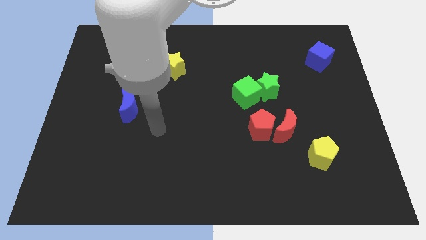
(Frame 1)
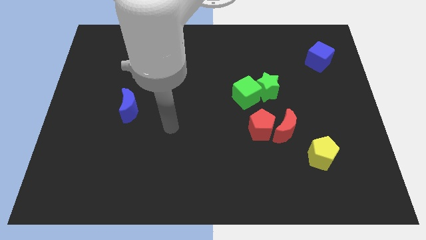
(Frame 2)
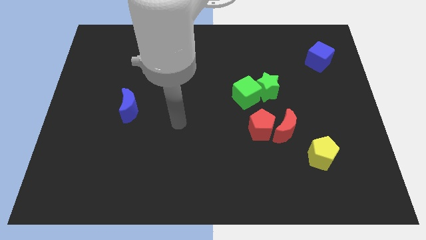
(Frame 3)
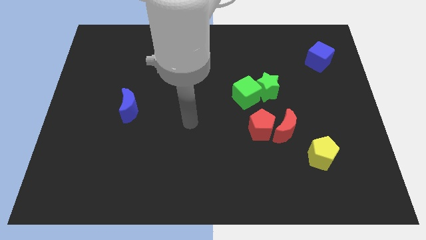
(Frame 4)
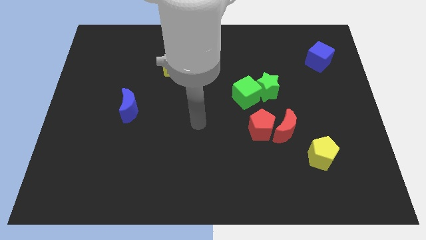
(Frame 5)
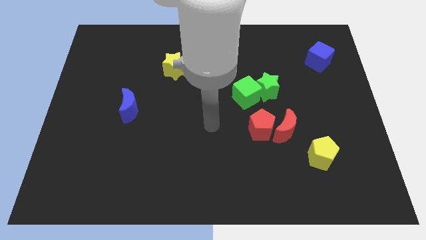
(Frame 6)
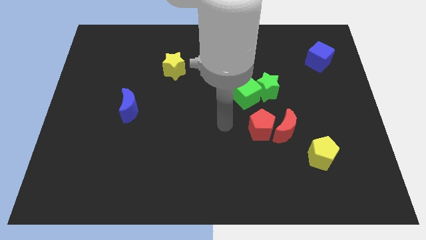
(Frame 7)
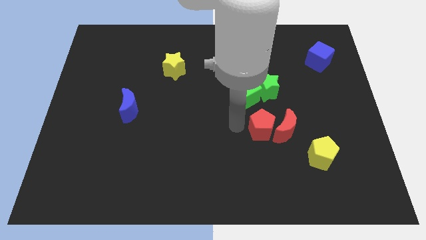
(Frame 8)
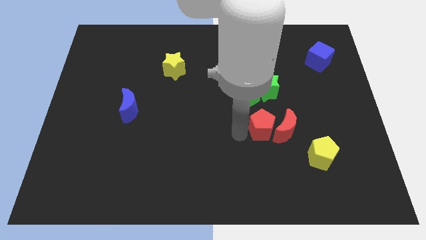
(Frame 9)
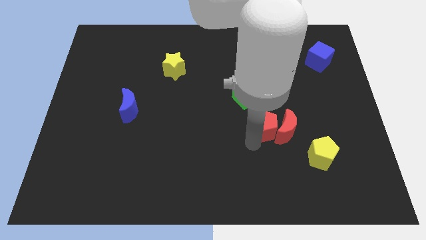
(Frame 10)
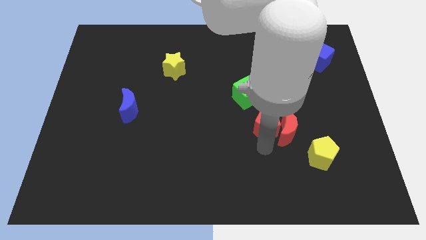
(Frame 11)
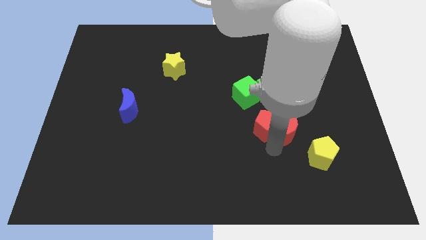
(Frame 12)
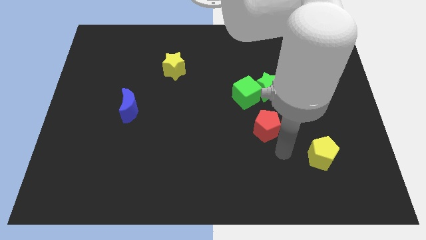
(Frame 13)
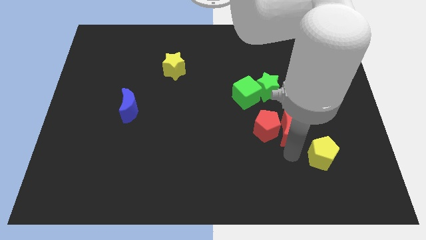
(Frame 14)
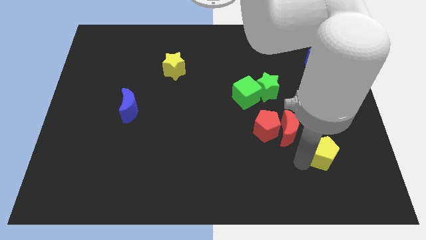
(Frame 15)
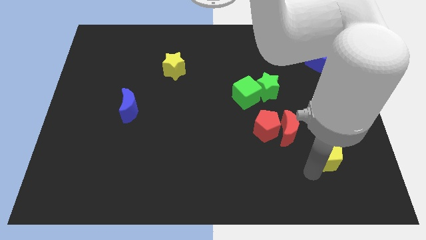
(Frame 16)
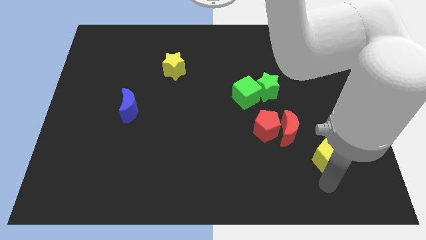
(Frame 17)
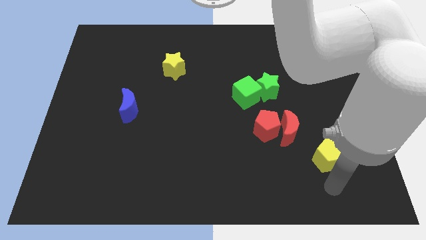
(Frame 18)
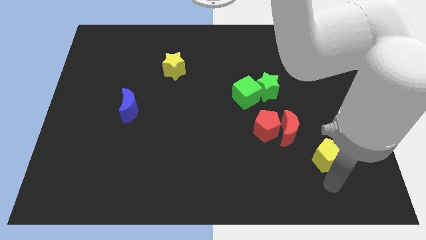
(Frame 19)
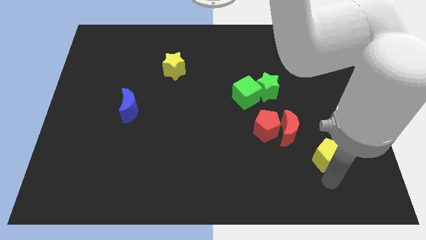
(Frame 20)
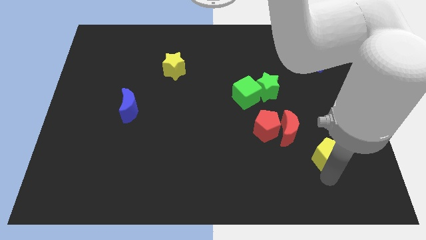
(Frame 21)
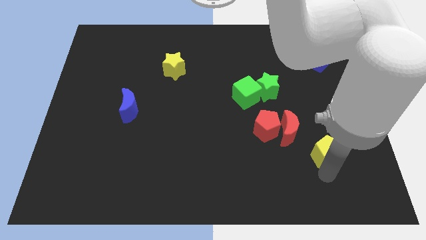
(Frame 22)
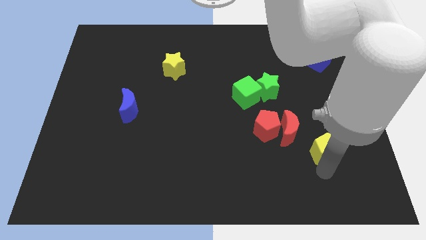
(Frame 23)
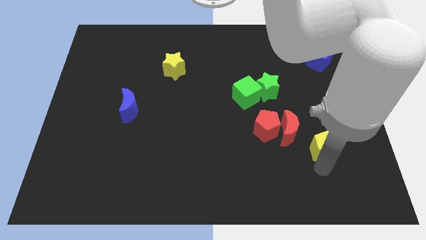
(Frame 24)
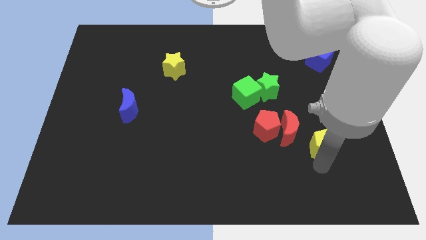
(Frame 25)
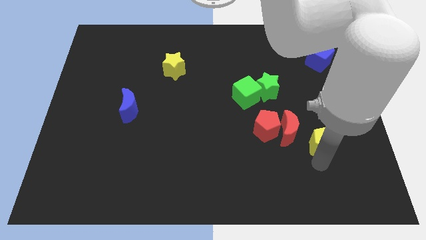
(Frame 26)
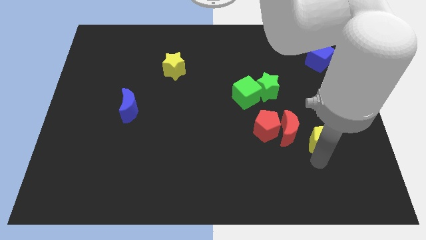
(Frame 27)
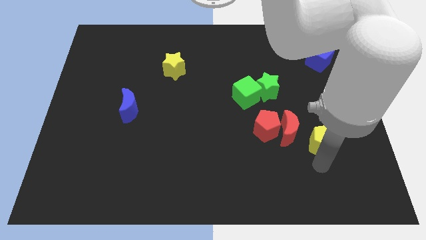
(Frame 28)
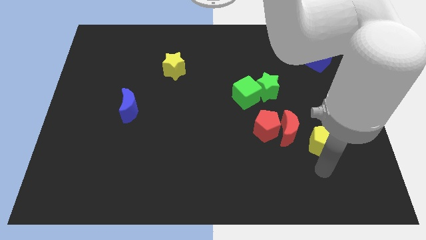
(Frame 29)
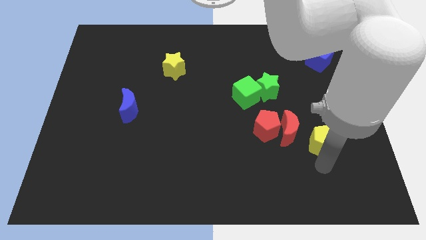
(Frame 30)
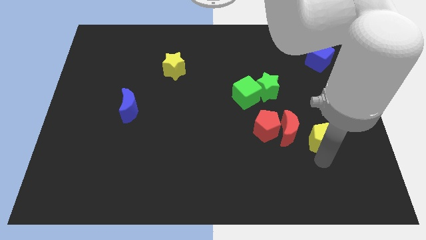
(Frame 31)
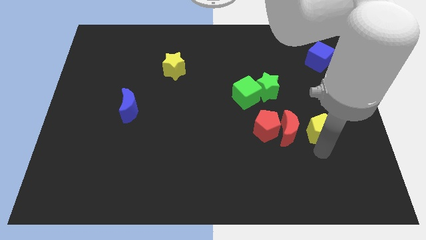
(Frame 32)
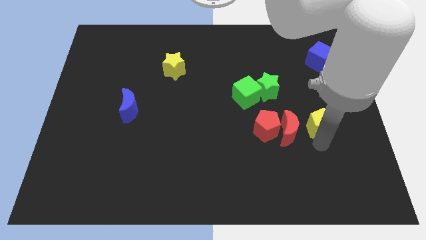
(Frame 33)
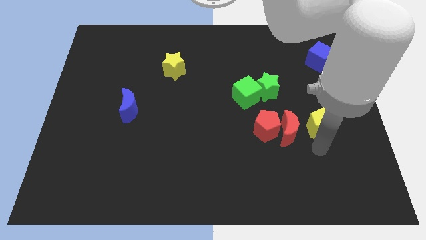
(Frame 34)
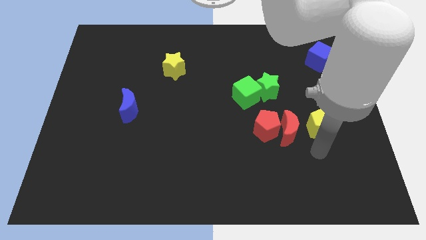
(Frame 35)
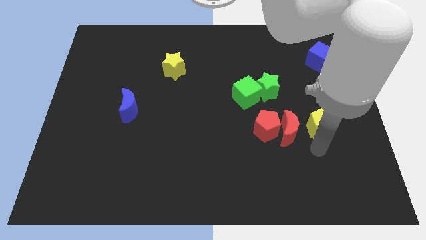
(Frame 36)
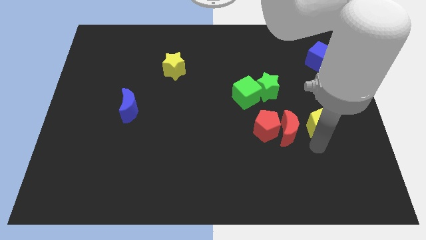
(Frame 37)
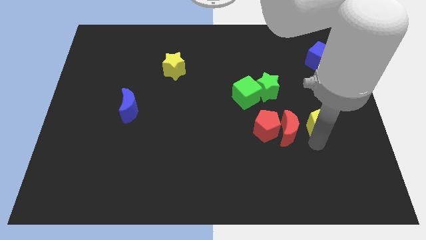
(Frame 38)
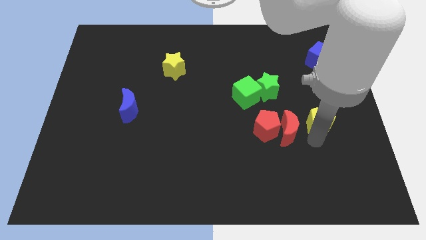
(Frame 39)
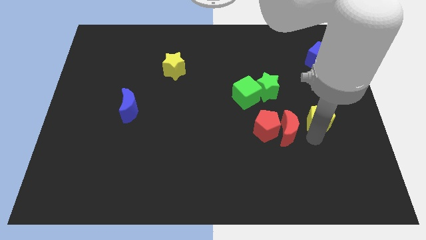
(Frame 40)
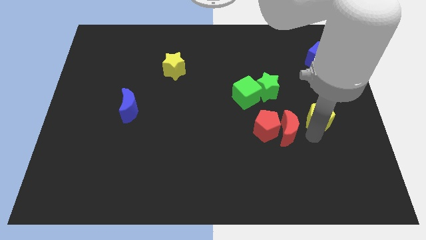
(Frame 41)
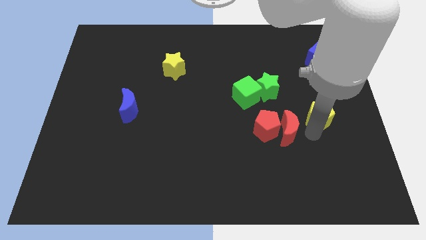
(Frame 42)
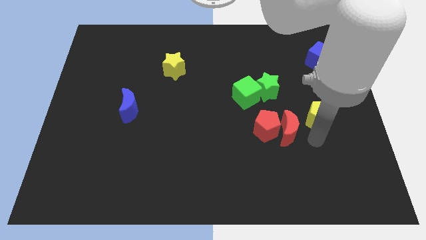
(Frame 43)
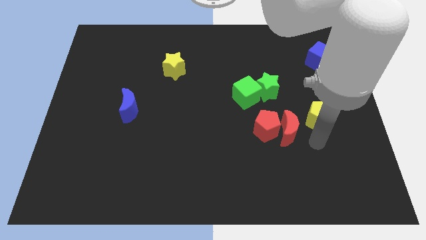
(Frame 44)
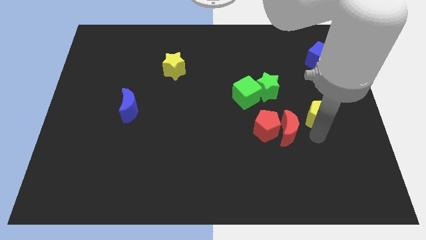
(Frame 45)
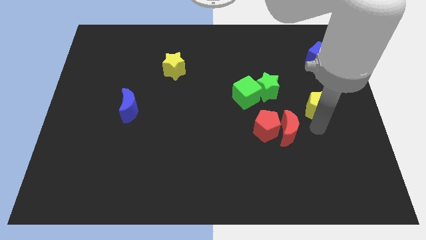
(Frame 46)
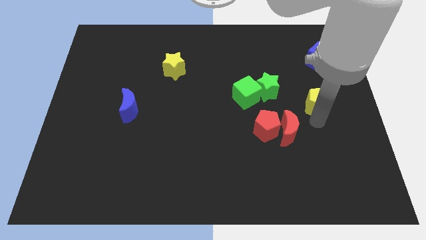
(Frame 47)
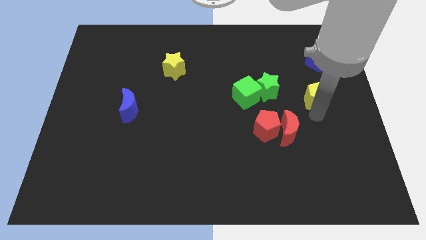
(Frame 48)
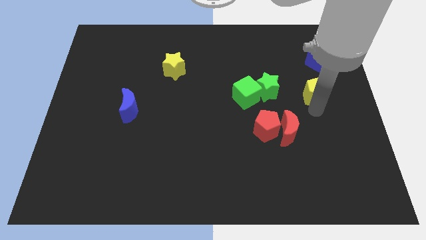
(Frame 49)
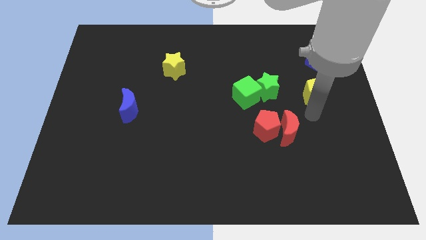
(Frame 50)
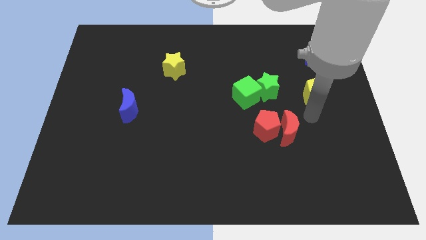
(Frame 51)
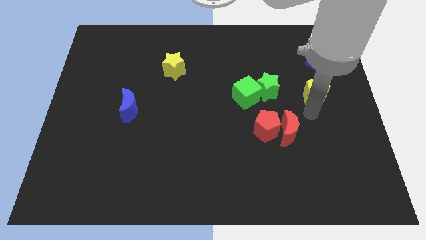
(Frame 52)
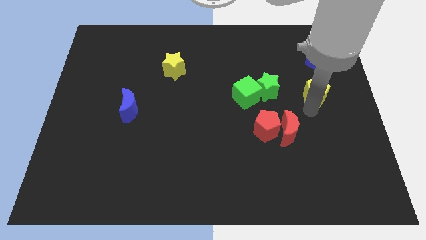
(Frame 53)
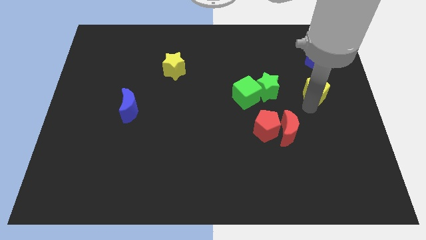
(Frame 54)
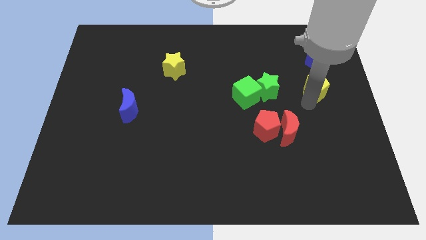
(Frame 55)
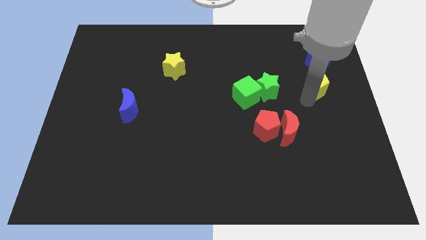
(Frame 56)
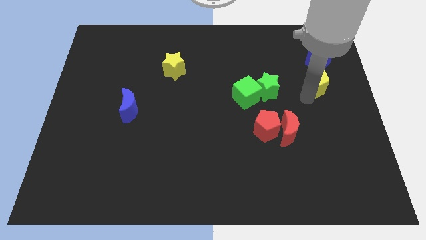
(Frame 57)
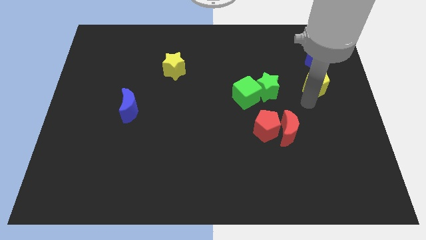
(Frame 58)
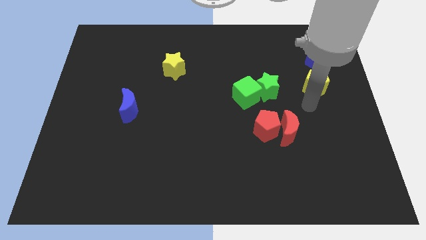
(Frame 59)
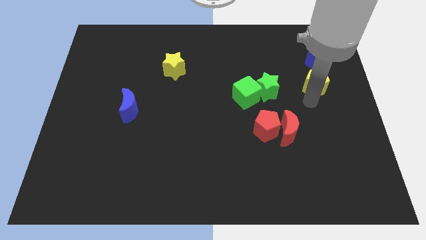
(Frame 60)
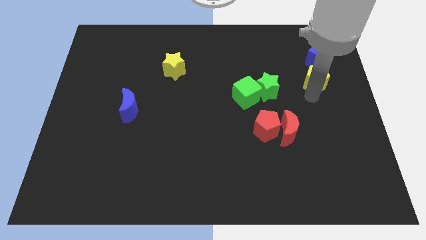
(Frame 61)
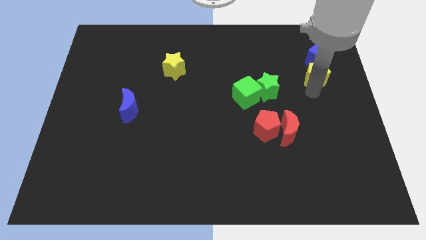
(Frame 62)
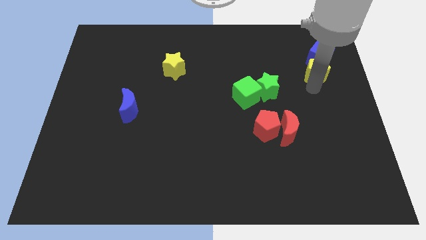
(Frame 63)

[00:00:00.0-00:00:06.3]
put the yellow pentagon next to the blue cube

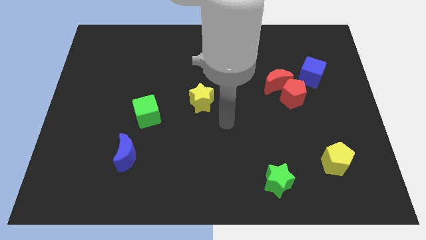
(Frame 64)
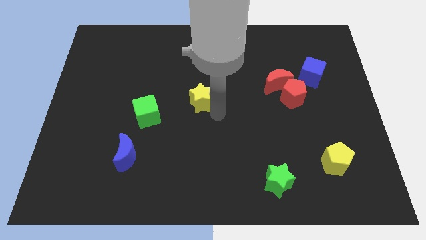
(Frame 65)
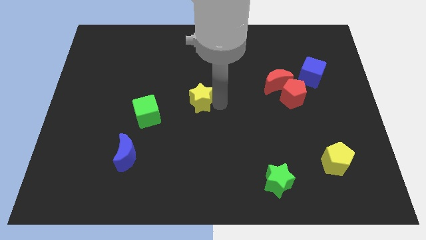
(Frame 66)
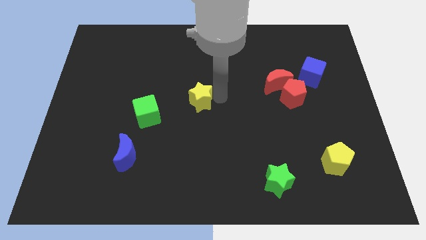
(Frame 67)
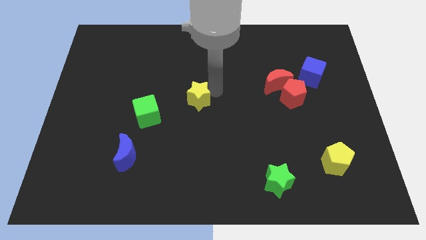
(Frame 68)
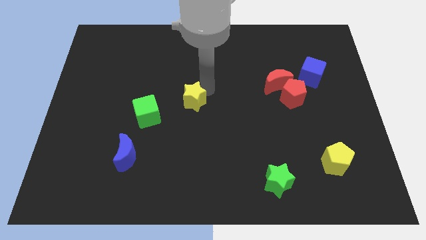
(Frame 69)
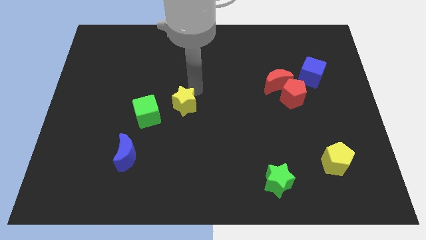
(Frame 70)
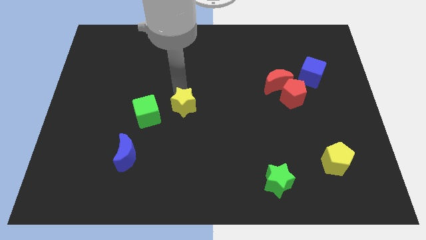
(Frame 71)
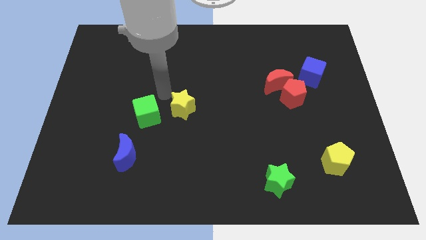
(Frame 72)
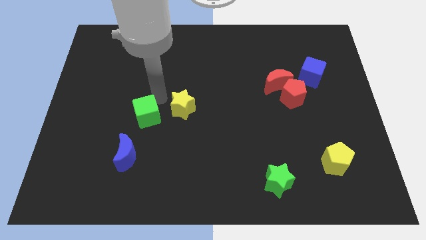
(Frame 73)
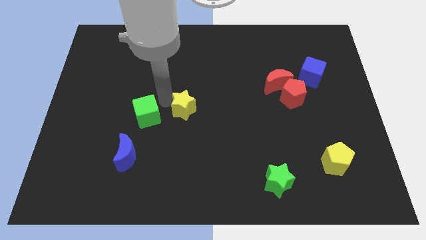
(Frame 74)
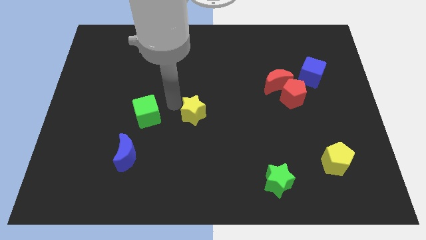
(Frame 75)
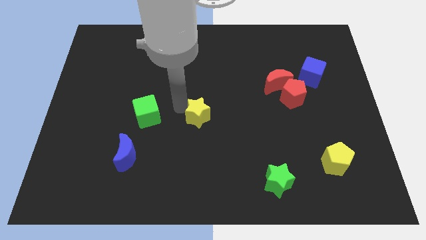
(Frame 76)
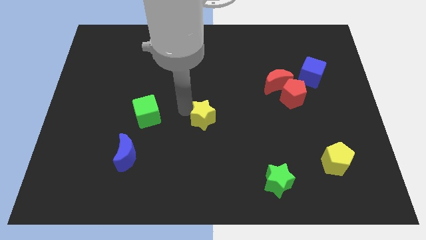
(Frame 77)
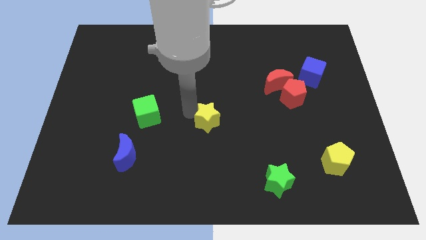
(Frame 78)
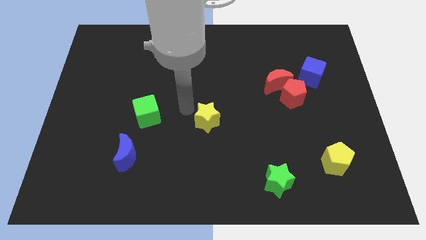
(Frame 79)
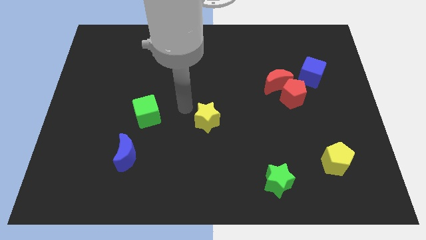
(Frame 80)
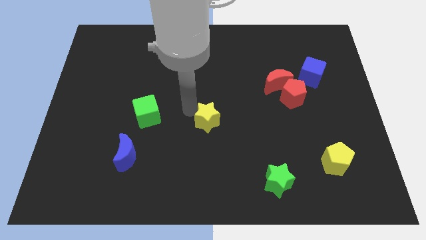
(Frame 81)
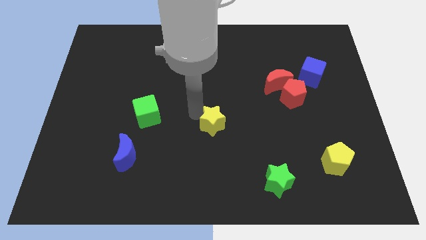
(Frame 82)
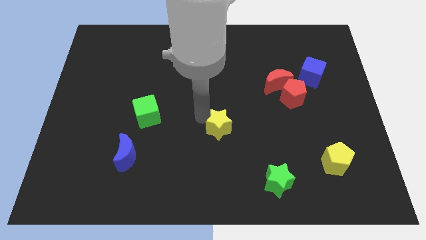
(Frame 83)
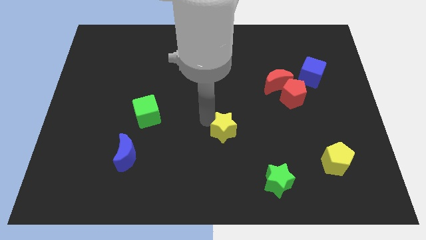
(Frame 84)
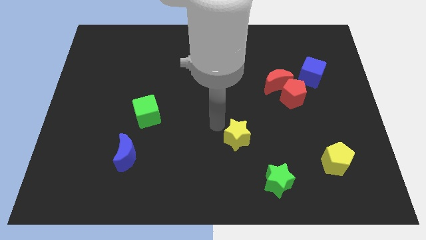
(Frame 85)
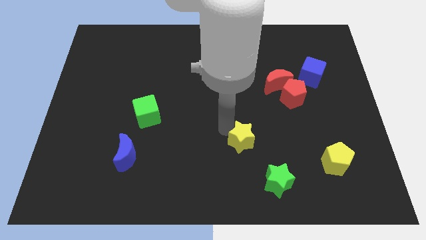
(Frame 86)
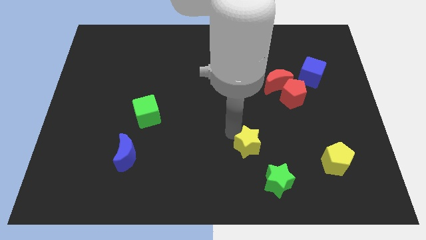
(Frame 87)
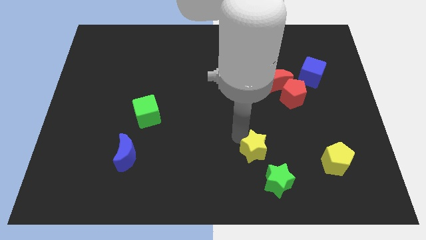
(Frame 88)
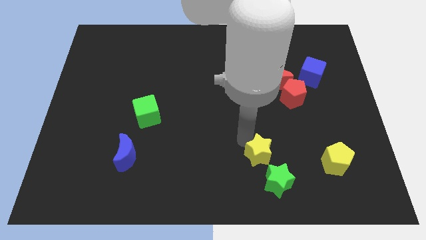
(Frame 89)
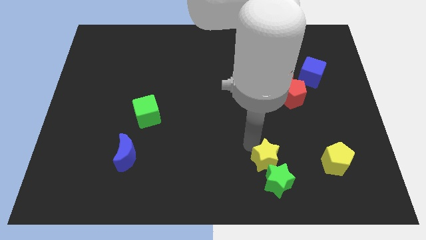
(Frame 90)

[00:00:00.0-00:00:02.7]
put the yellow star towards the green star
